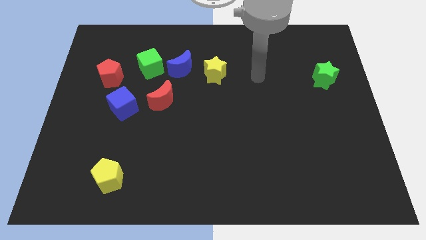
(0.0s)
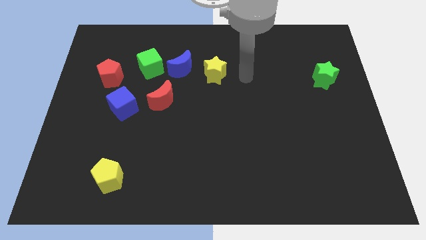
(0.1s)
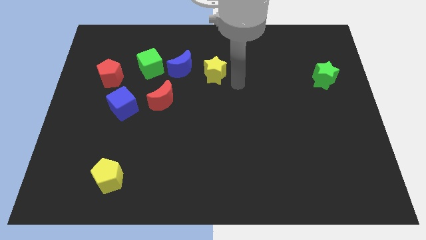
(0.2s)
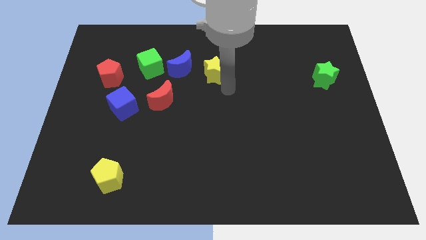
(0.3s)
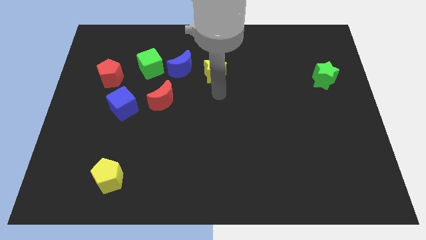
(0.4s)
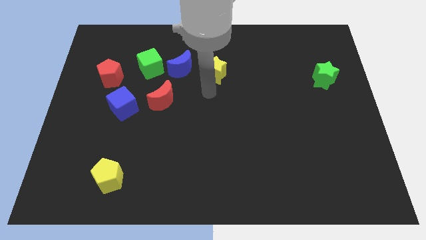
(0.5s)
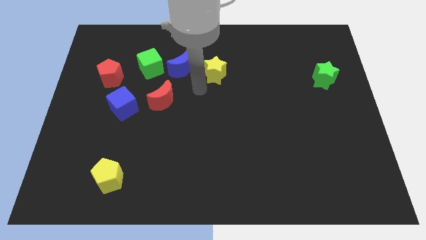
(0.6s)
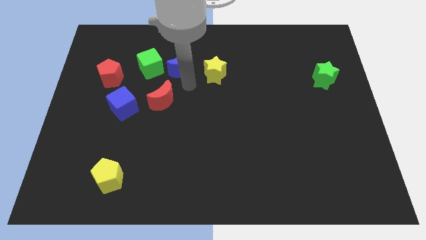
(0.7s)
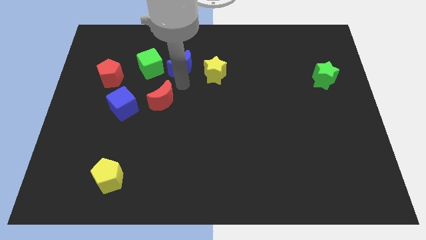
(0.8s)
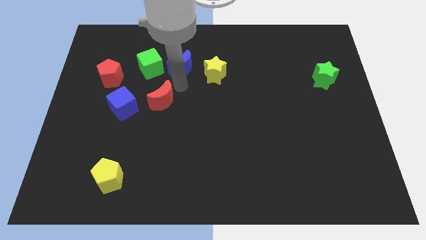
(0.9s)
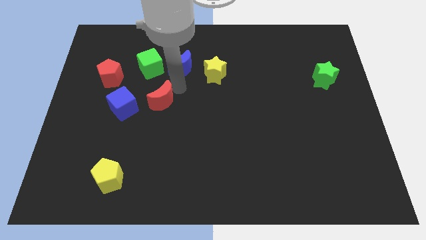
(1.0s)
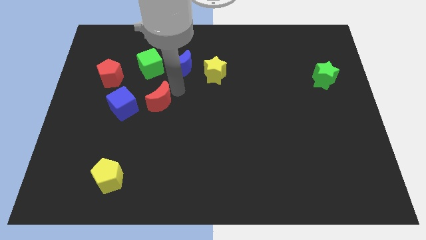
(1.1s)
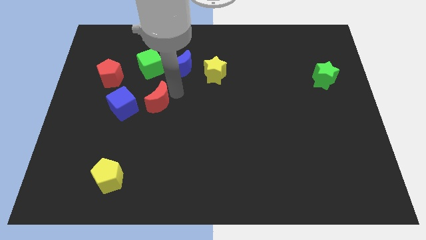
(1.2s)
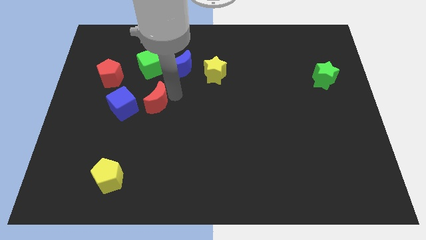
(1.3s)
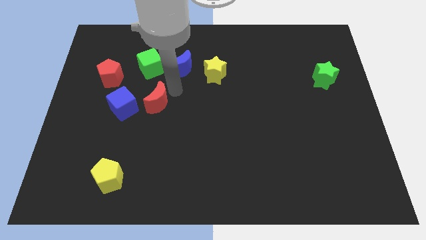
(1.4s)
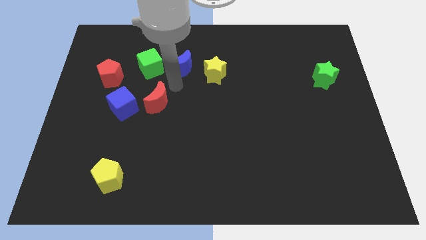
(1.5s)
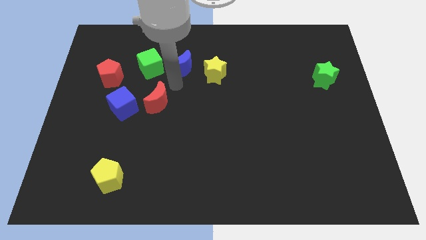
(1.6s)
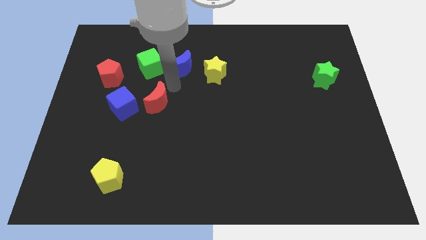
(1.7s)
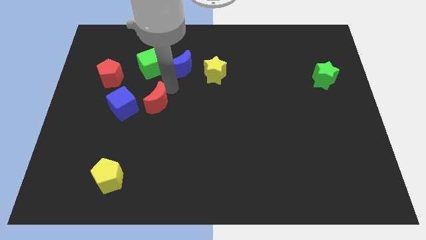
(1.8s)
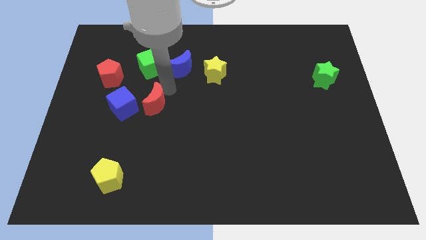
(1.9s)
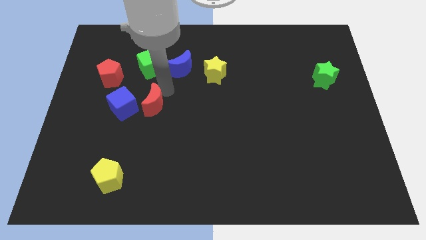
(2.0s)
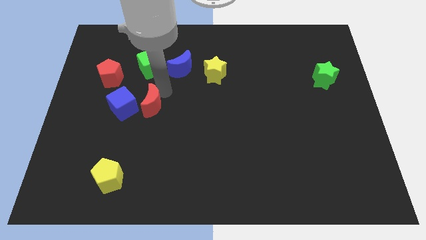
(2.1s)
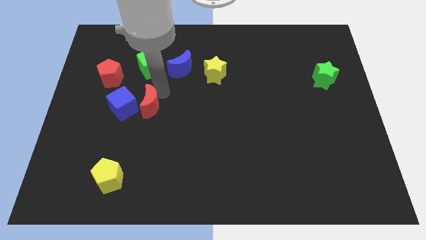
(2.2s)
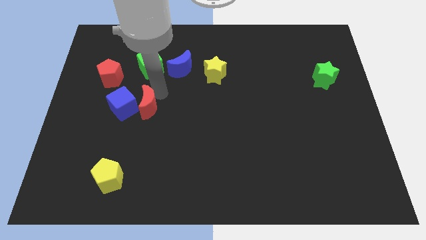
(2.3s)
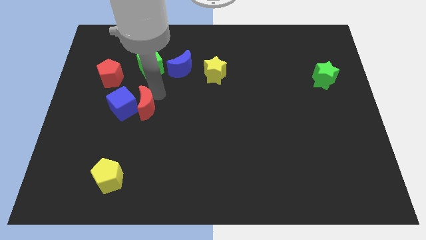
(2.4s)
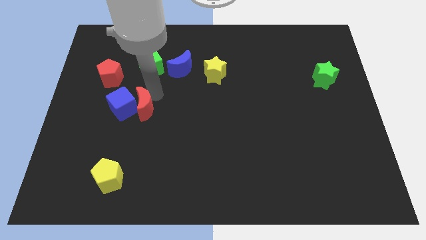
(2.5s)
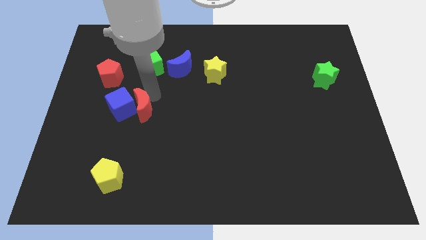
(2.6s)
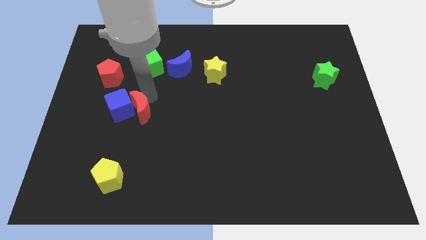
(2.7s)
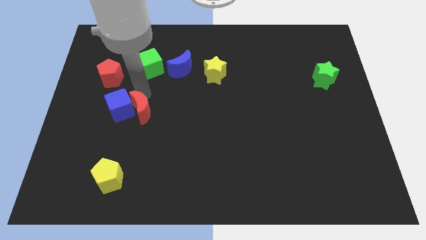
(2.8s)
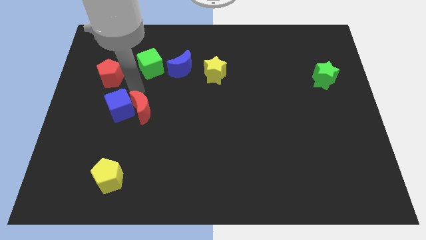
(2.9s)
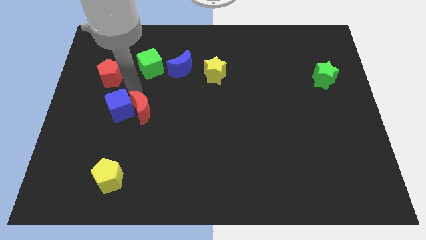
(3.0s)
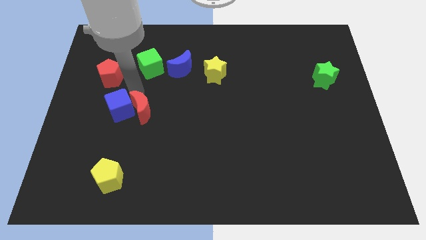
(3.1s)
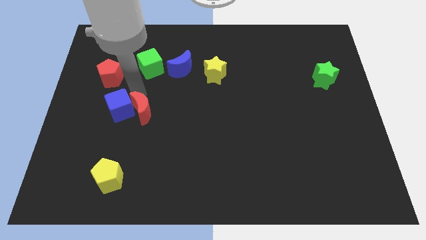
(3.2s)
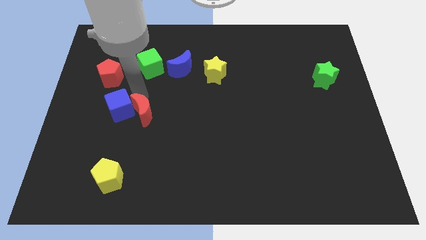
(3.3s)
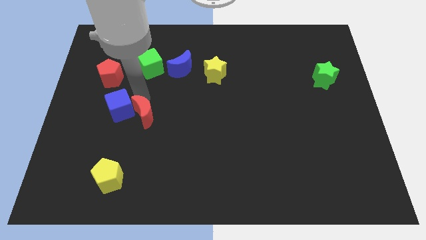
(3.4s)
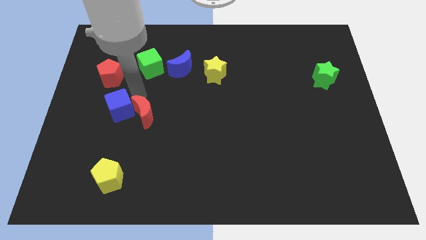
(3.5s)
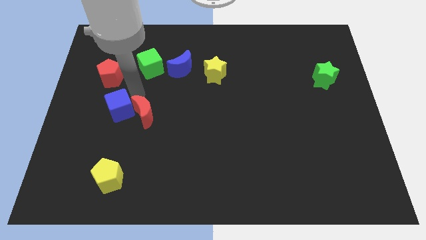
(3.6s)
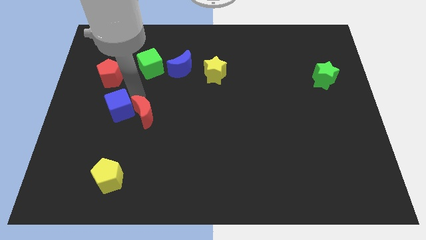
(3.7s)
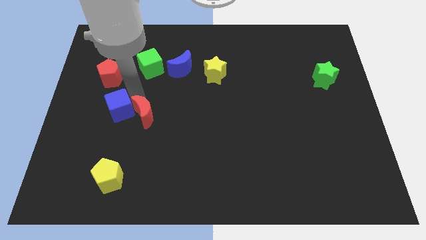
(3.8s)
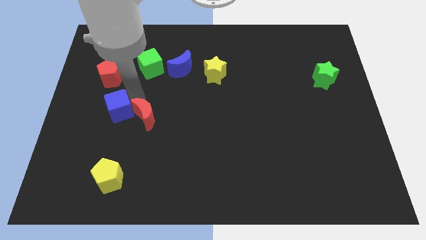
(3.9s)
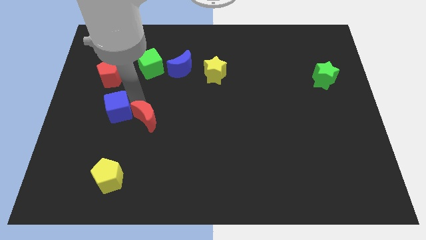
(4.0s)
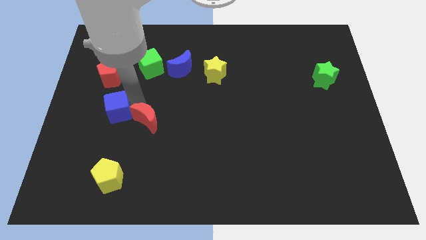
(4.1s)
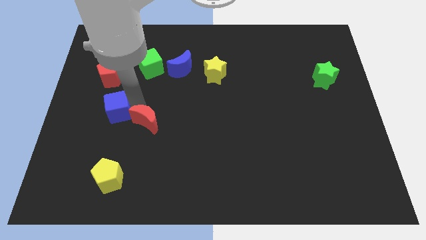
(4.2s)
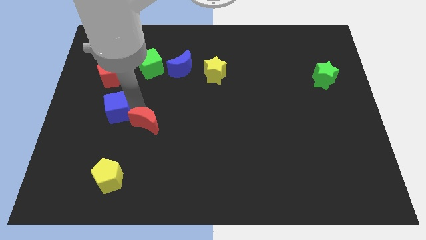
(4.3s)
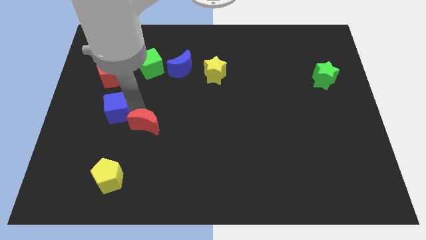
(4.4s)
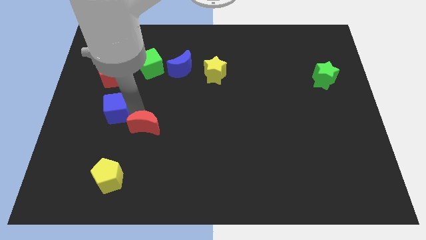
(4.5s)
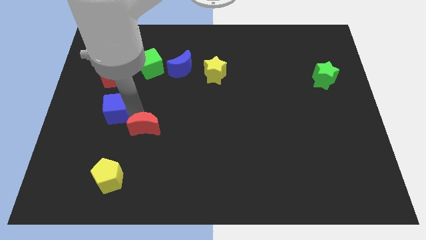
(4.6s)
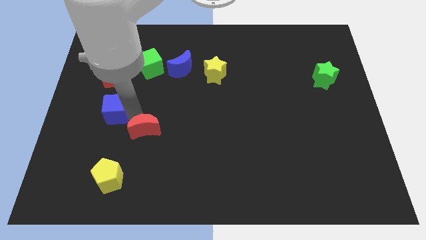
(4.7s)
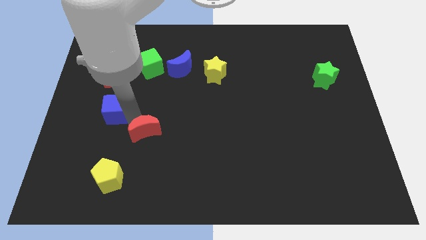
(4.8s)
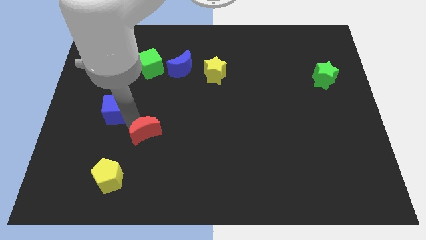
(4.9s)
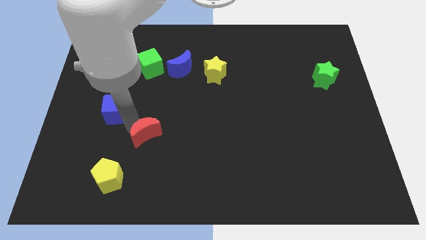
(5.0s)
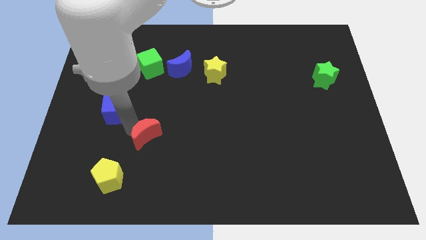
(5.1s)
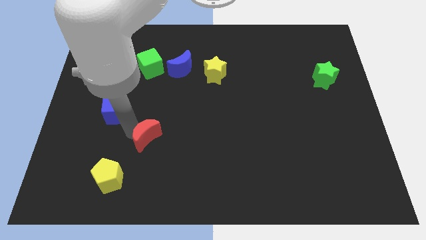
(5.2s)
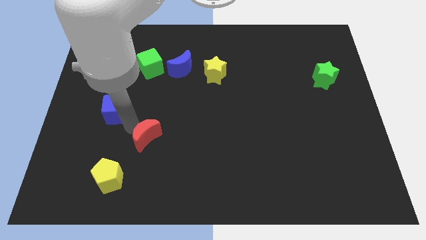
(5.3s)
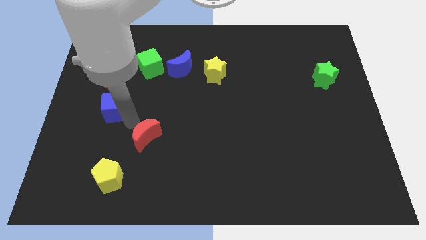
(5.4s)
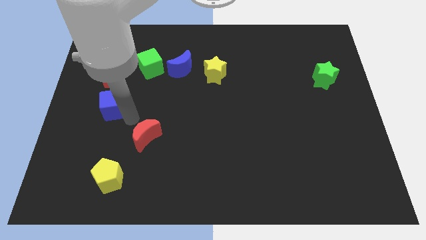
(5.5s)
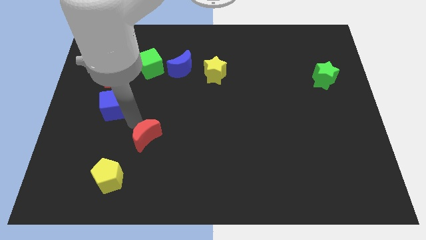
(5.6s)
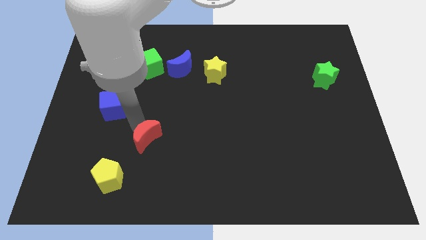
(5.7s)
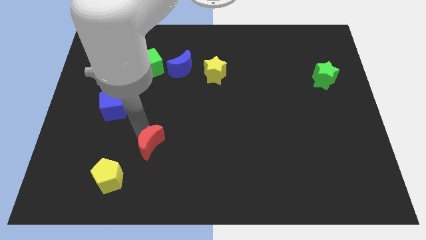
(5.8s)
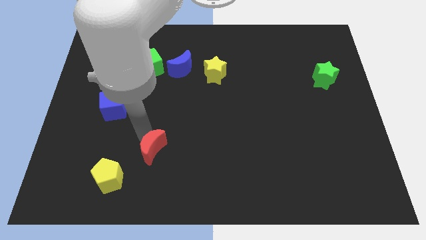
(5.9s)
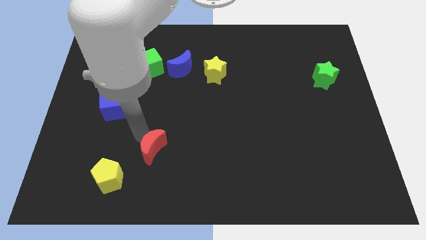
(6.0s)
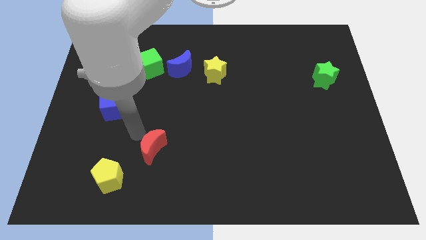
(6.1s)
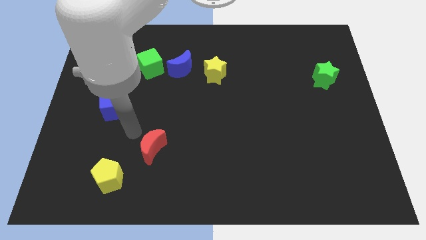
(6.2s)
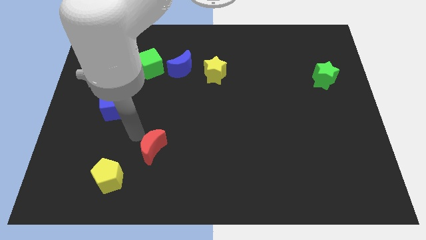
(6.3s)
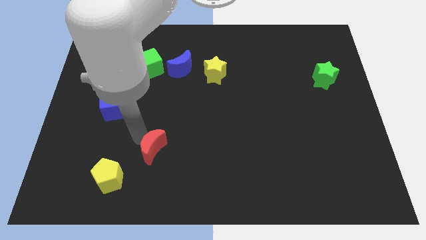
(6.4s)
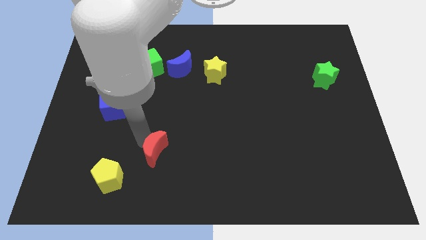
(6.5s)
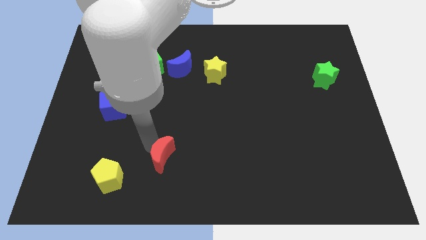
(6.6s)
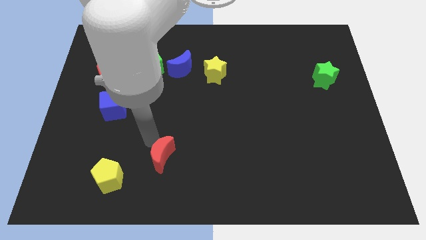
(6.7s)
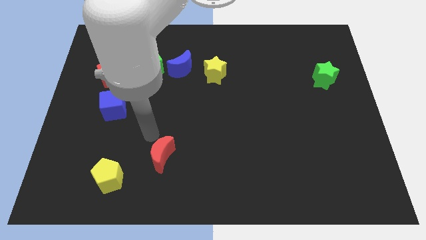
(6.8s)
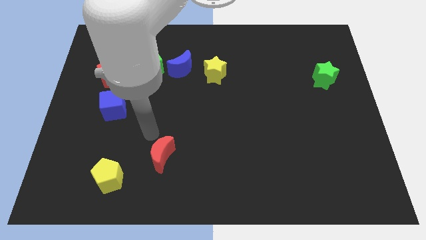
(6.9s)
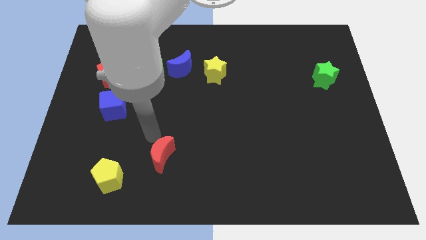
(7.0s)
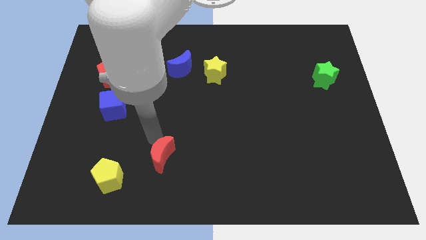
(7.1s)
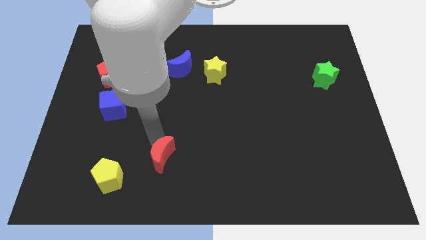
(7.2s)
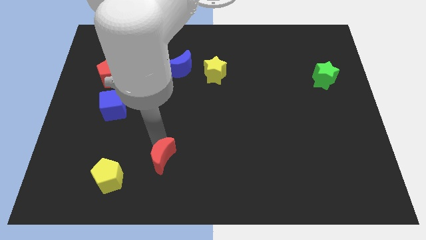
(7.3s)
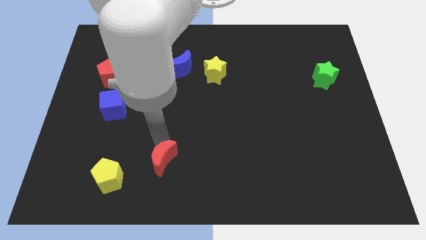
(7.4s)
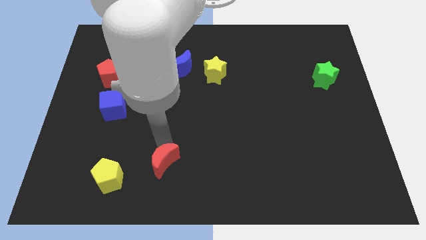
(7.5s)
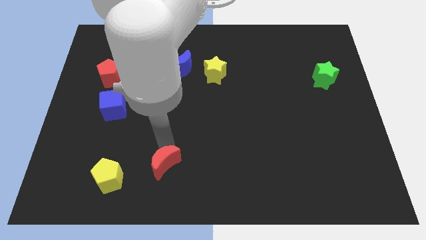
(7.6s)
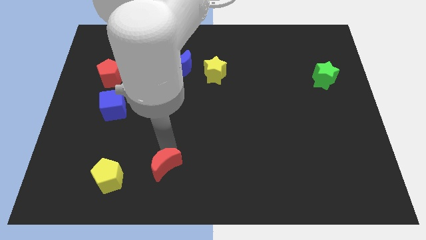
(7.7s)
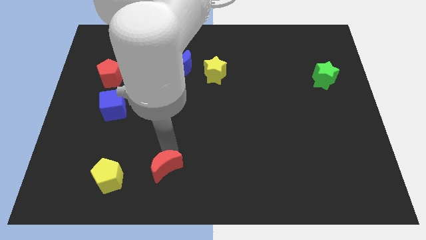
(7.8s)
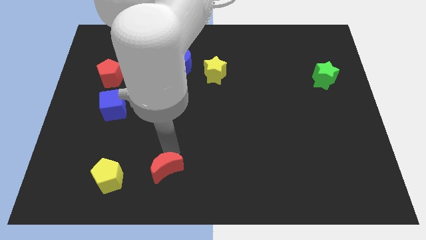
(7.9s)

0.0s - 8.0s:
move the red moon to the bottom
